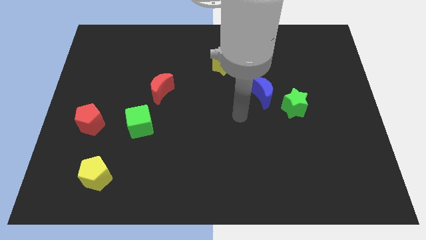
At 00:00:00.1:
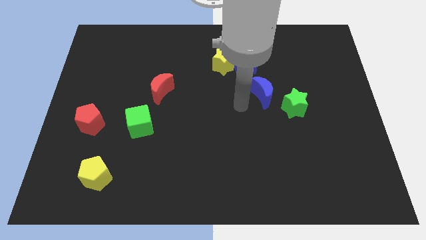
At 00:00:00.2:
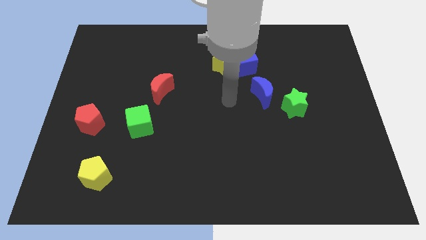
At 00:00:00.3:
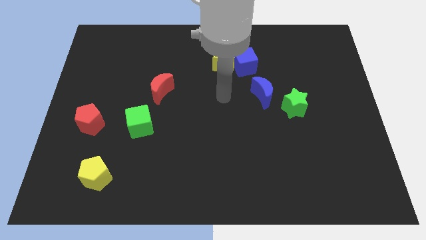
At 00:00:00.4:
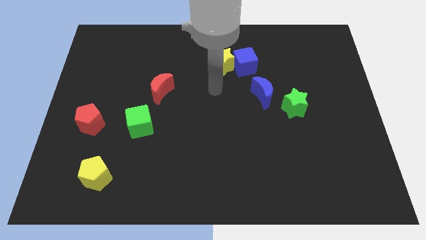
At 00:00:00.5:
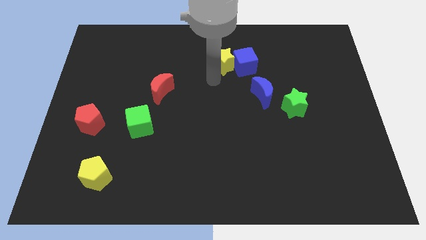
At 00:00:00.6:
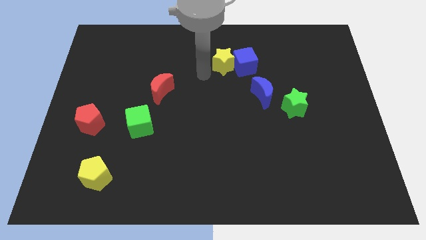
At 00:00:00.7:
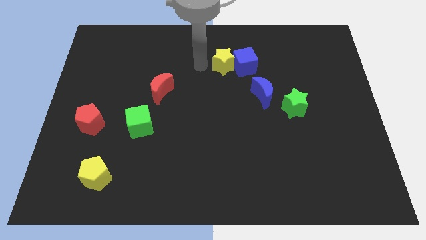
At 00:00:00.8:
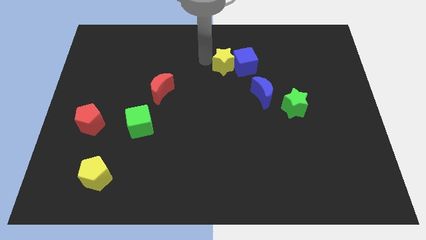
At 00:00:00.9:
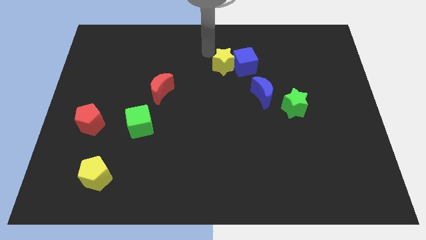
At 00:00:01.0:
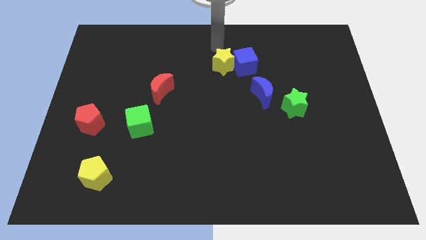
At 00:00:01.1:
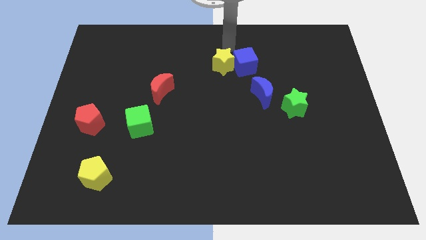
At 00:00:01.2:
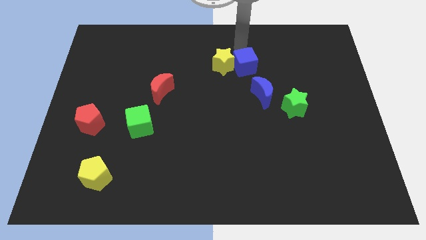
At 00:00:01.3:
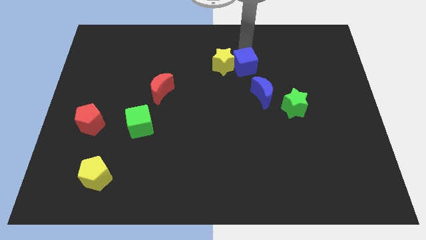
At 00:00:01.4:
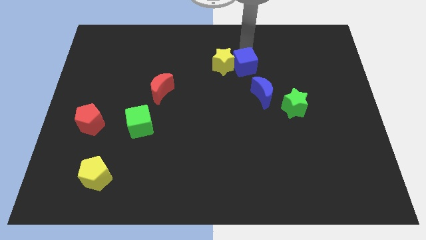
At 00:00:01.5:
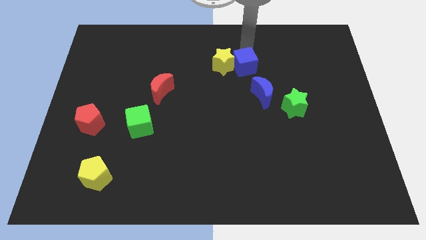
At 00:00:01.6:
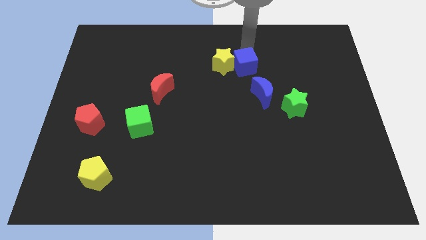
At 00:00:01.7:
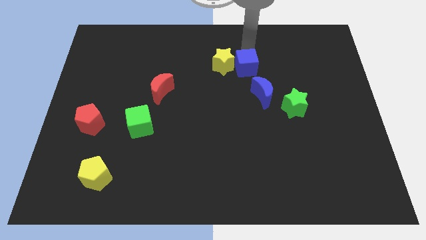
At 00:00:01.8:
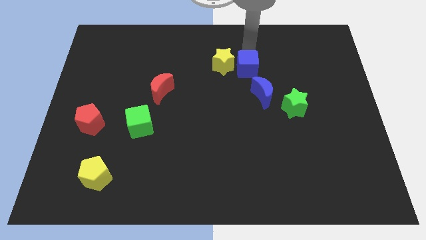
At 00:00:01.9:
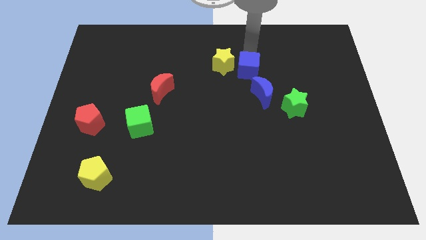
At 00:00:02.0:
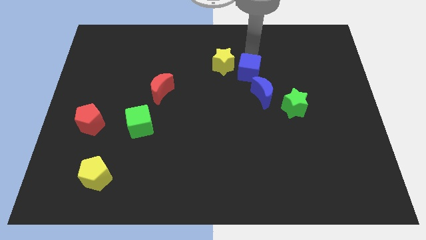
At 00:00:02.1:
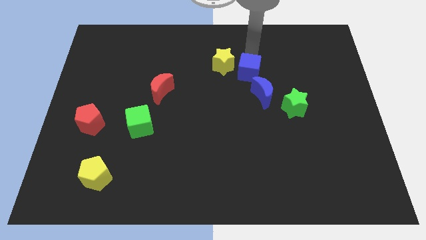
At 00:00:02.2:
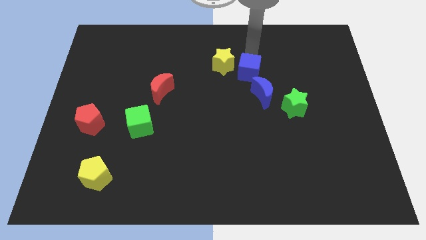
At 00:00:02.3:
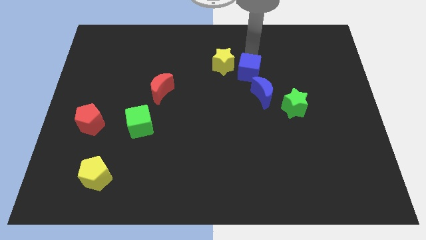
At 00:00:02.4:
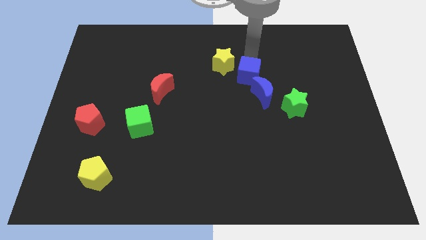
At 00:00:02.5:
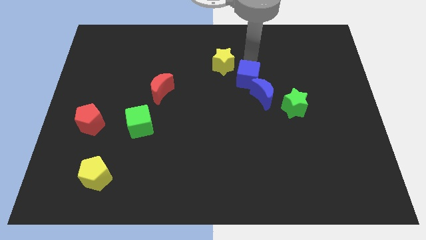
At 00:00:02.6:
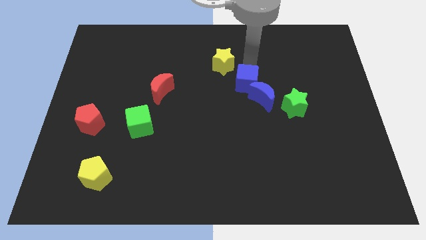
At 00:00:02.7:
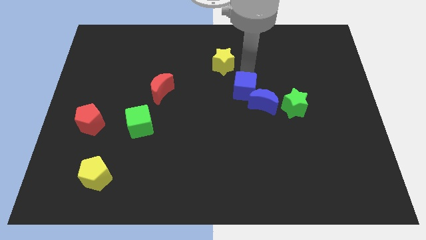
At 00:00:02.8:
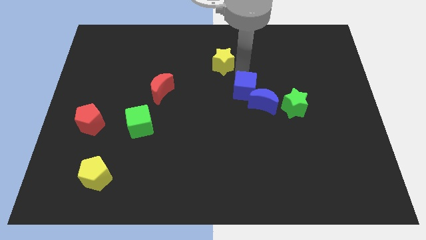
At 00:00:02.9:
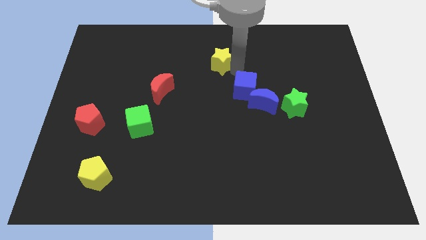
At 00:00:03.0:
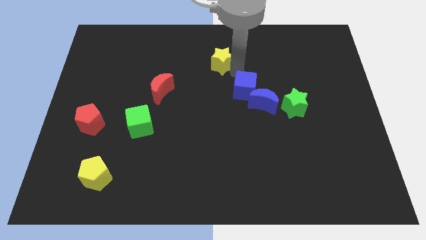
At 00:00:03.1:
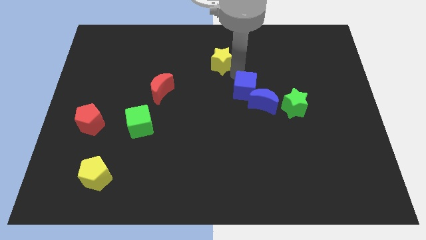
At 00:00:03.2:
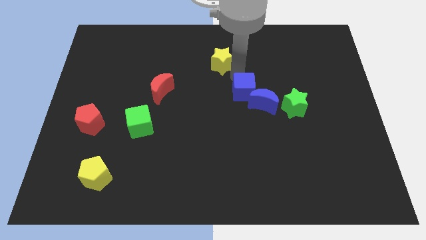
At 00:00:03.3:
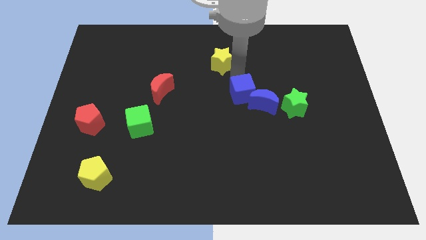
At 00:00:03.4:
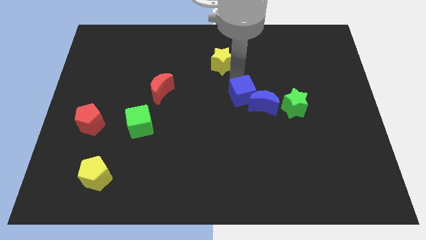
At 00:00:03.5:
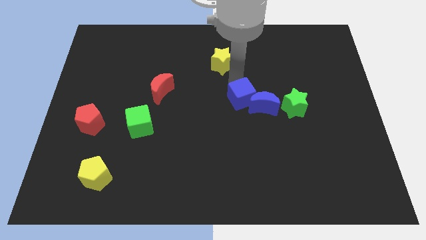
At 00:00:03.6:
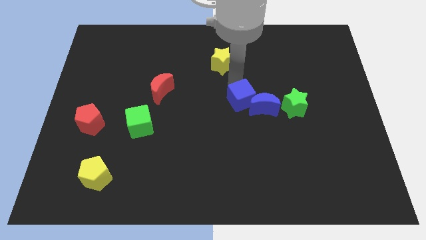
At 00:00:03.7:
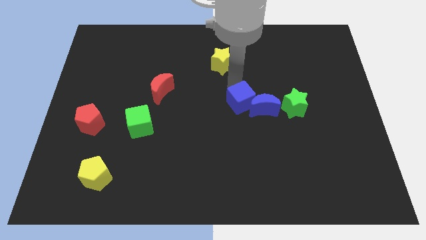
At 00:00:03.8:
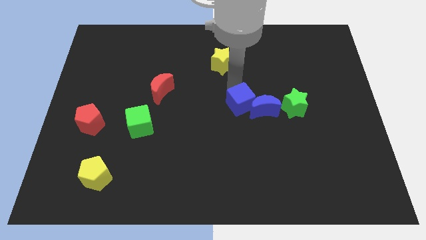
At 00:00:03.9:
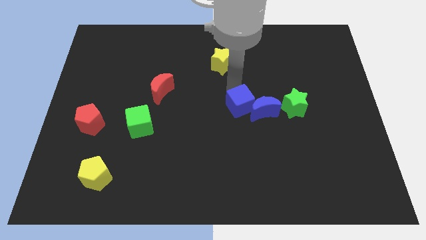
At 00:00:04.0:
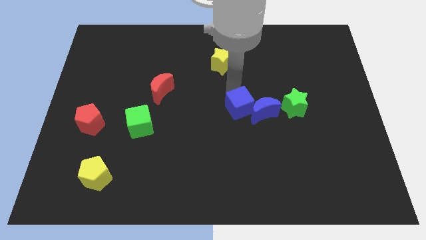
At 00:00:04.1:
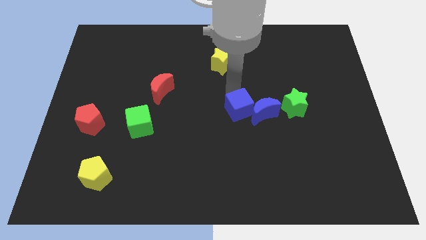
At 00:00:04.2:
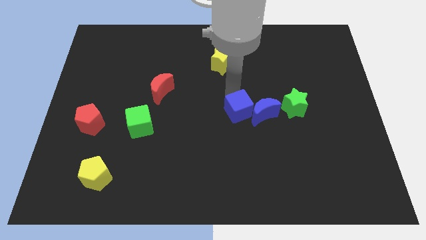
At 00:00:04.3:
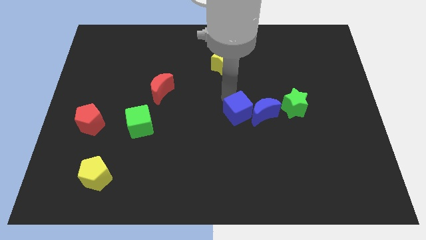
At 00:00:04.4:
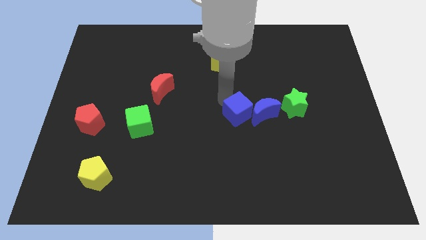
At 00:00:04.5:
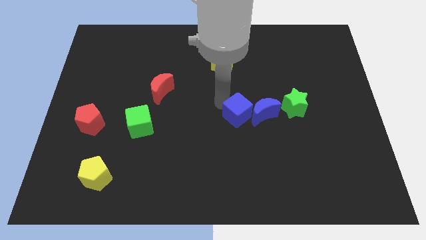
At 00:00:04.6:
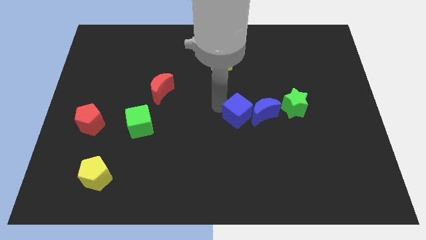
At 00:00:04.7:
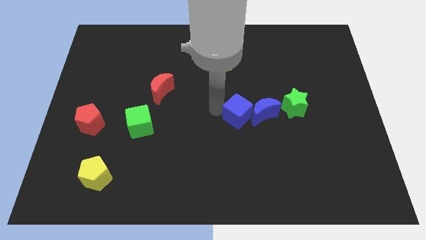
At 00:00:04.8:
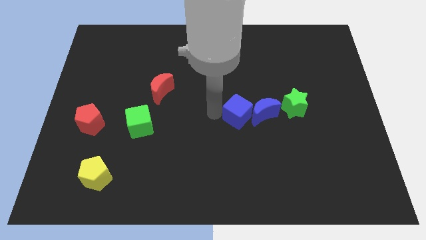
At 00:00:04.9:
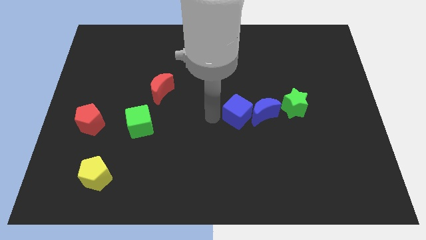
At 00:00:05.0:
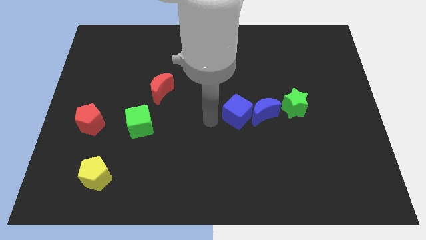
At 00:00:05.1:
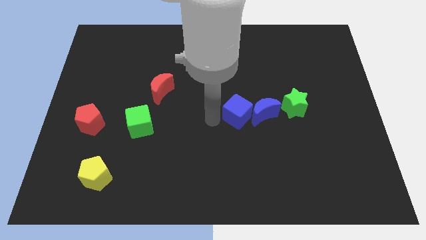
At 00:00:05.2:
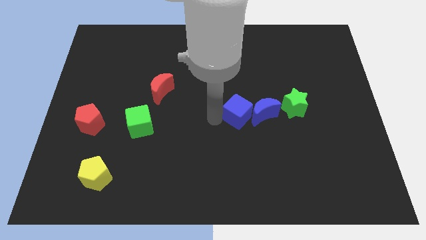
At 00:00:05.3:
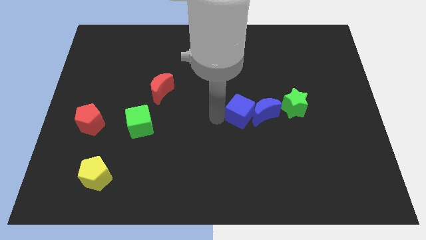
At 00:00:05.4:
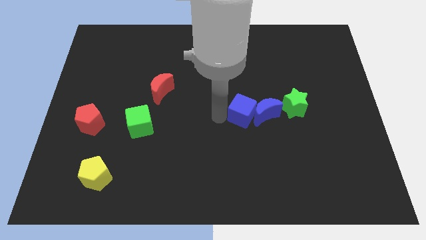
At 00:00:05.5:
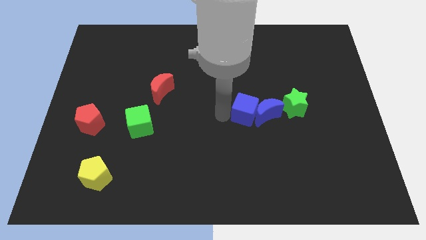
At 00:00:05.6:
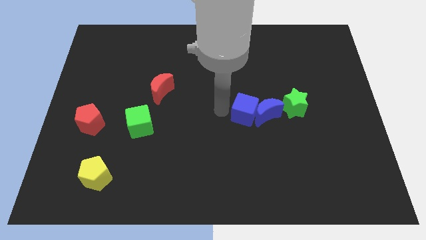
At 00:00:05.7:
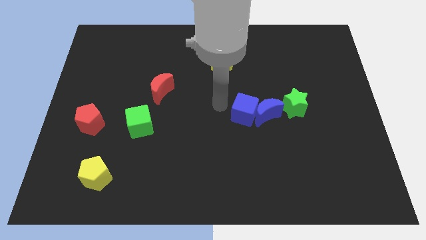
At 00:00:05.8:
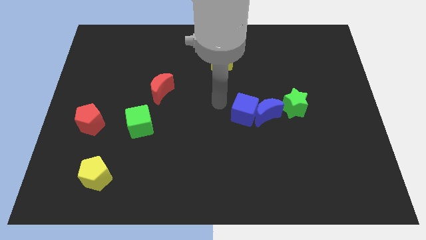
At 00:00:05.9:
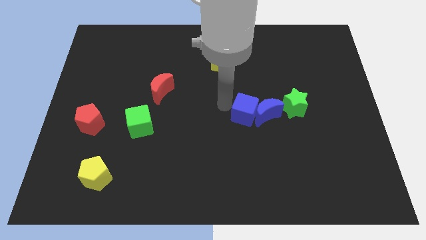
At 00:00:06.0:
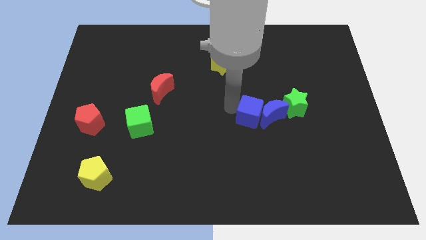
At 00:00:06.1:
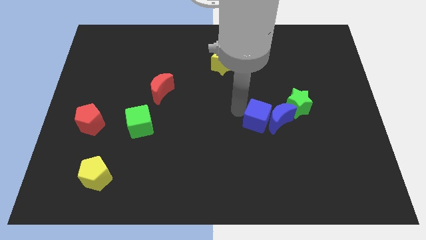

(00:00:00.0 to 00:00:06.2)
push the blue cube diagonally down and to the left of the green star
